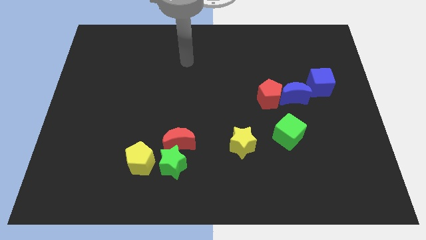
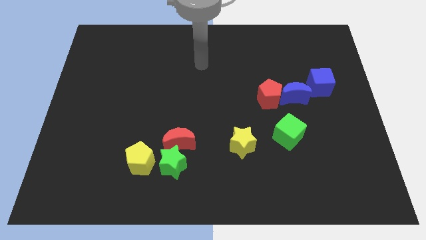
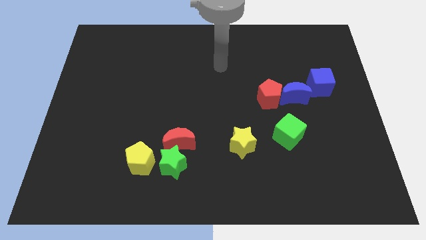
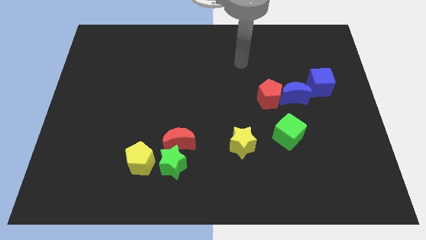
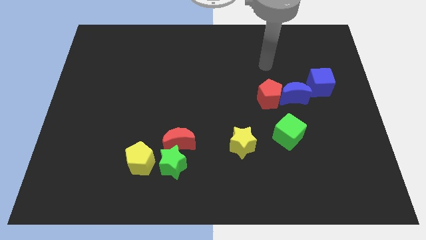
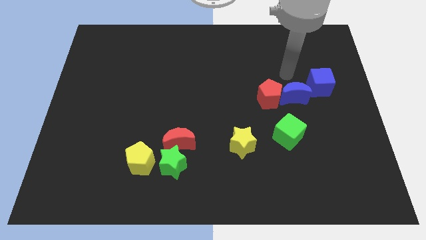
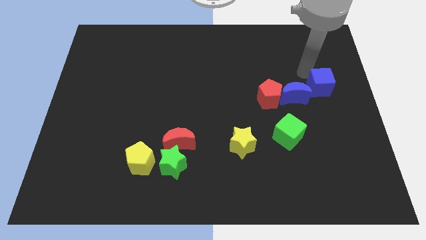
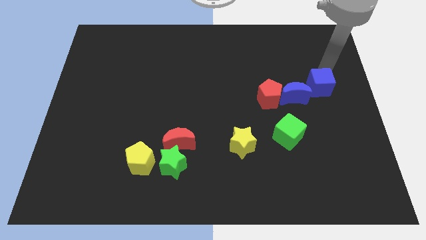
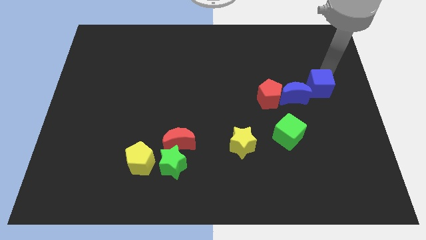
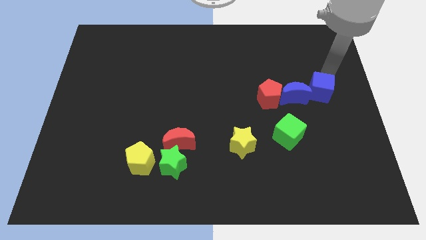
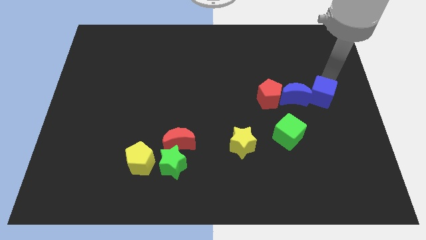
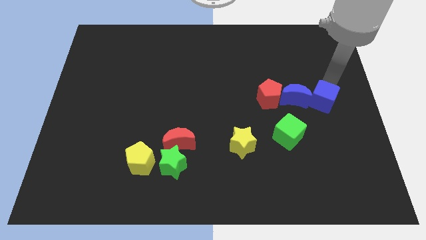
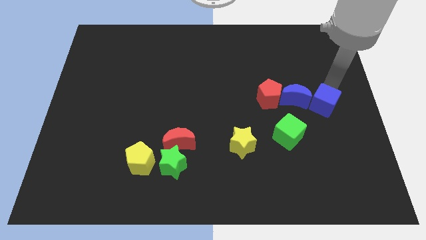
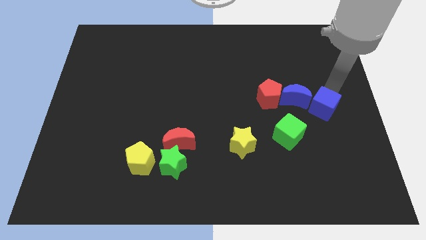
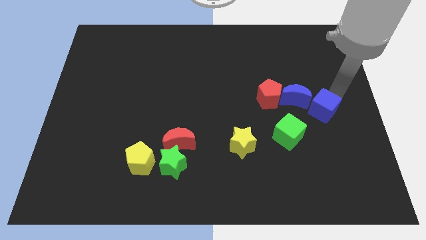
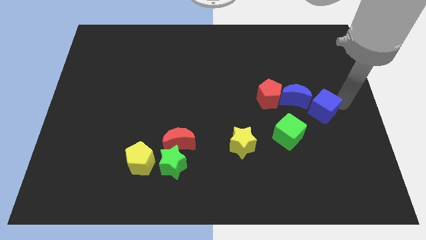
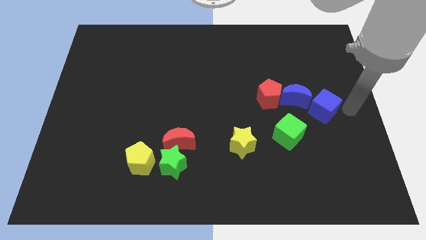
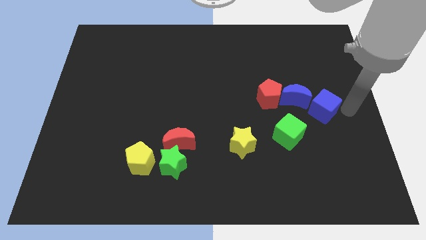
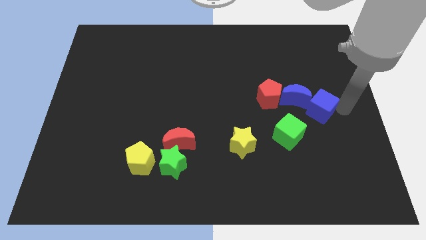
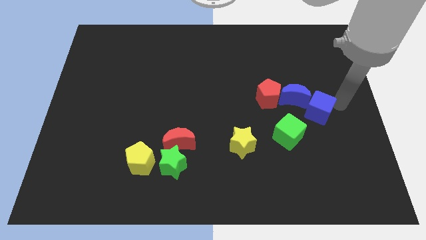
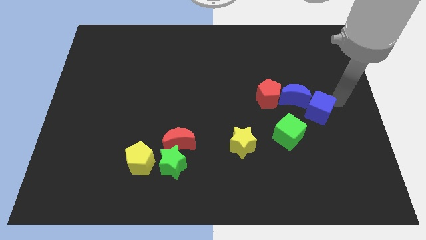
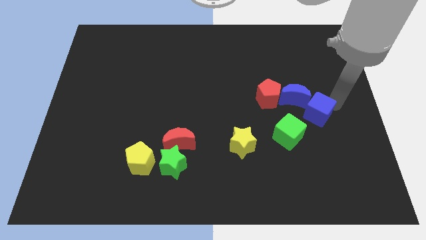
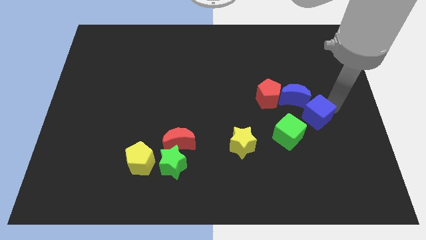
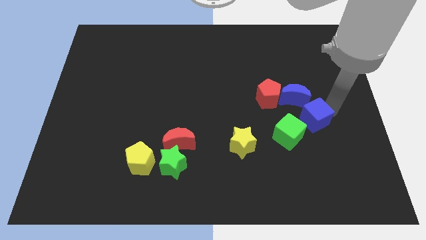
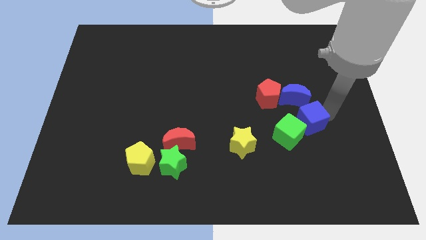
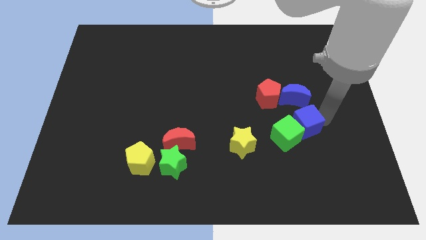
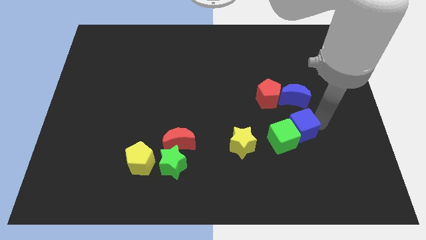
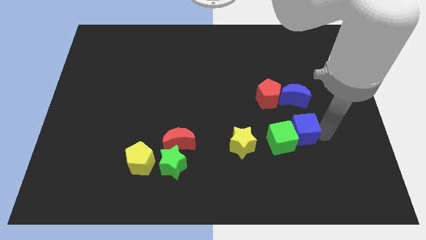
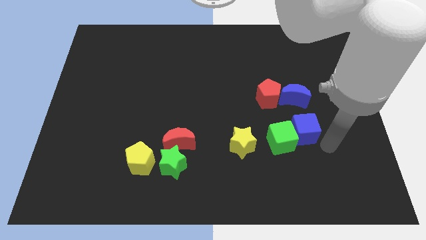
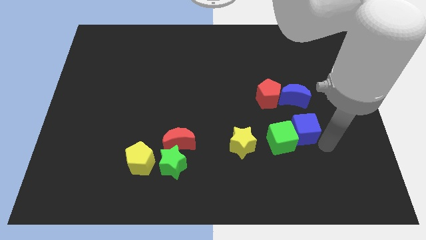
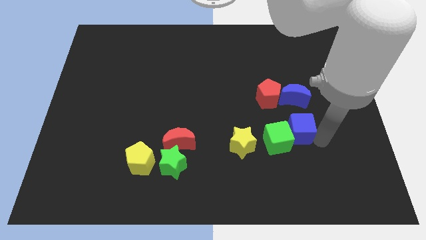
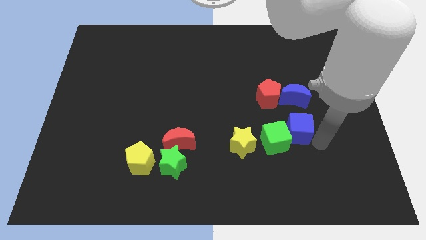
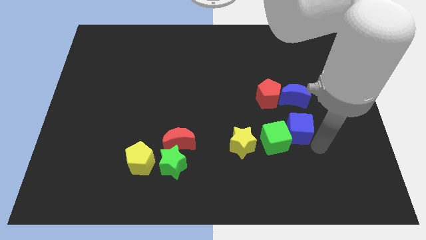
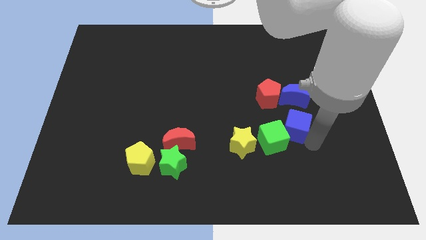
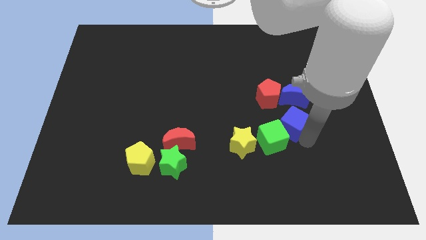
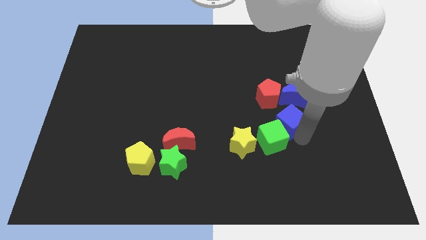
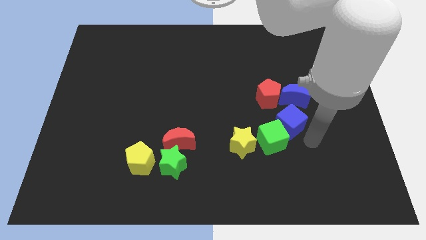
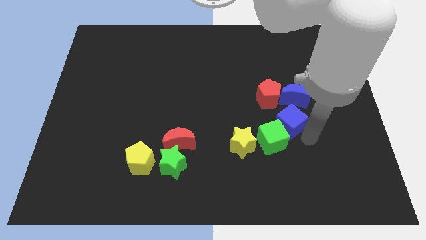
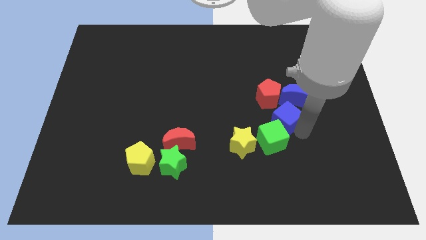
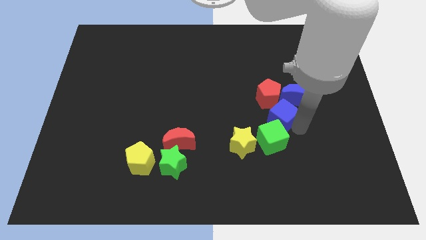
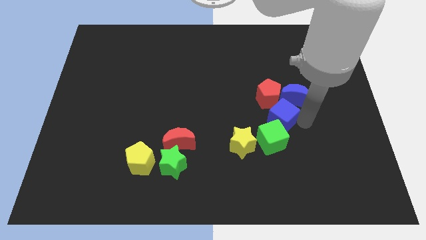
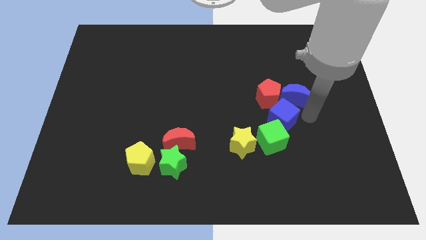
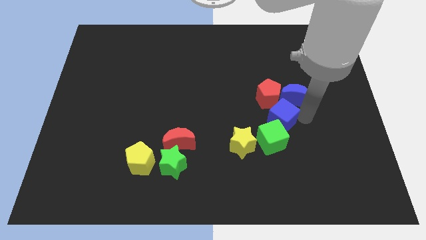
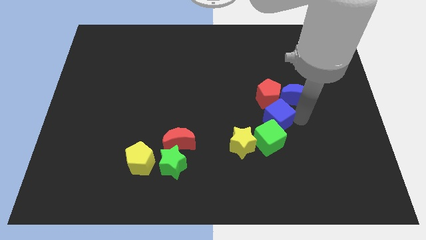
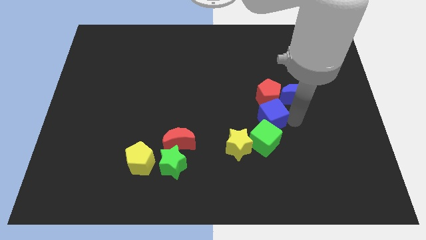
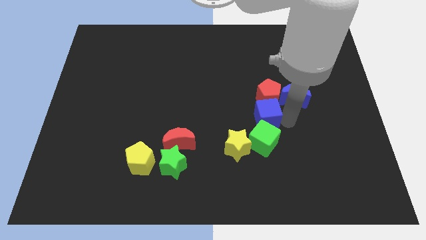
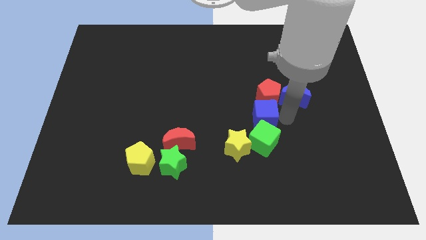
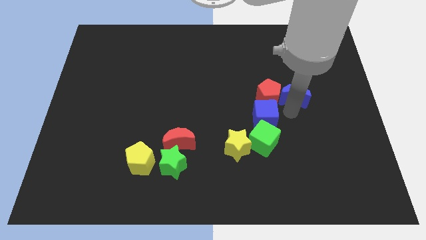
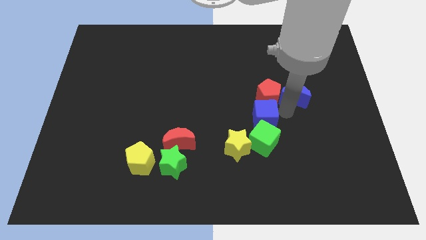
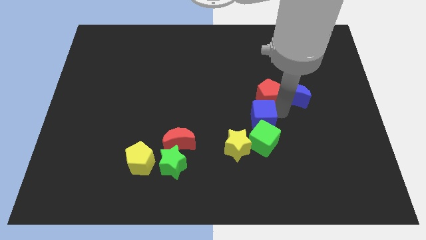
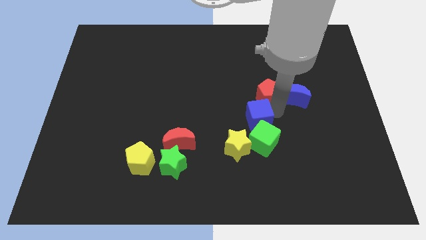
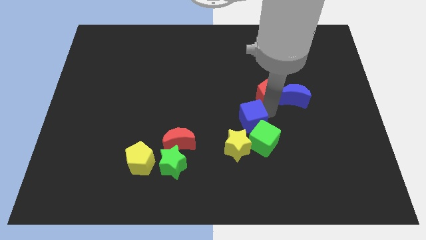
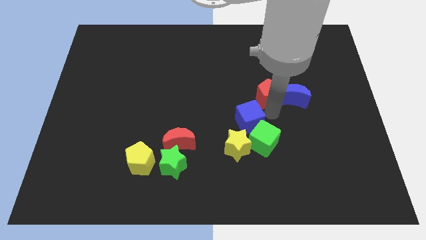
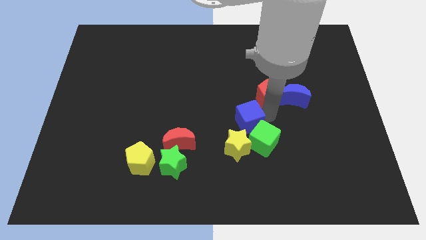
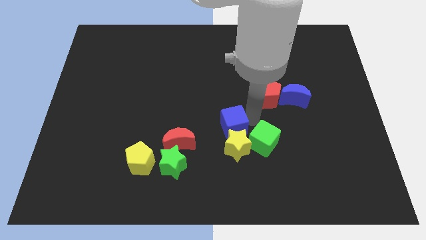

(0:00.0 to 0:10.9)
push the blue cube to the top left side of the yellow star

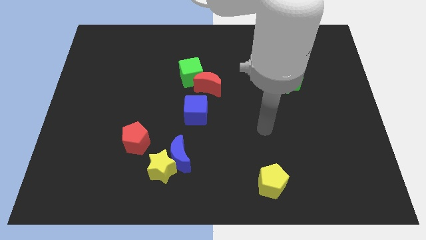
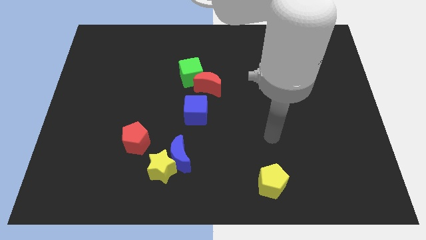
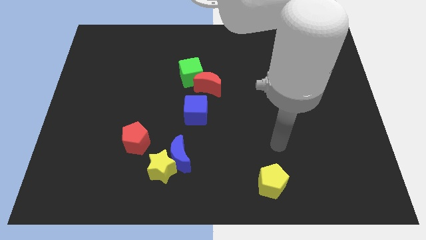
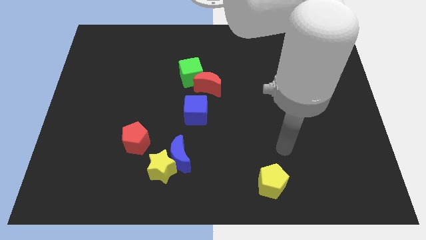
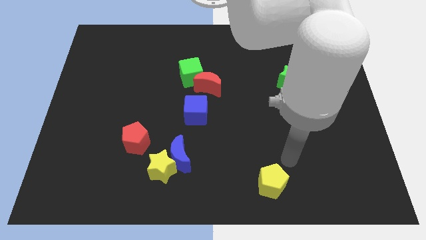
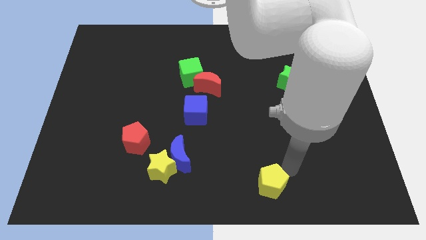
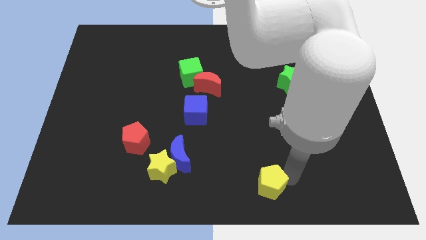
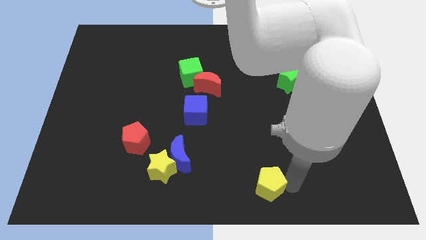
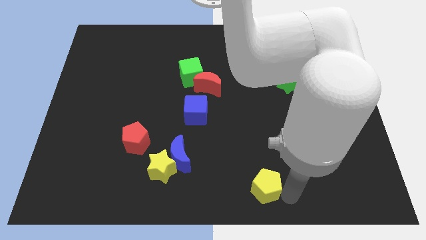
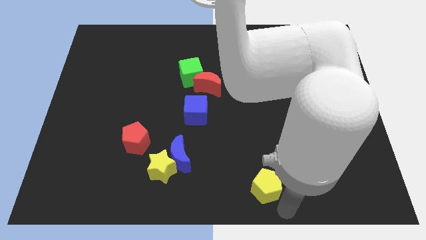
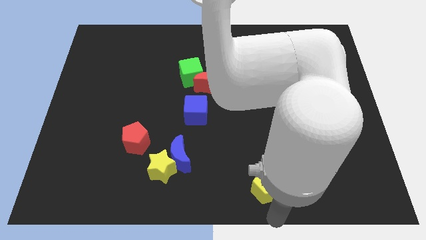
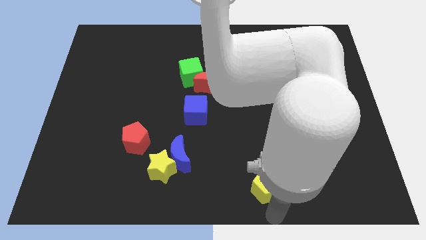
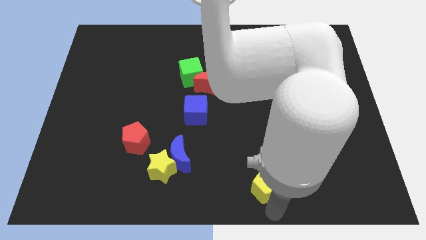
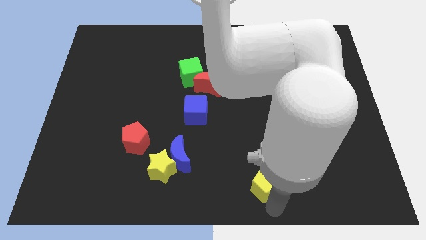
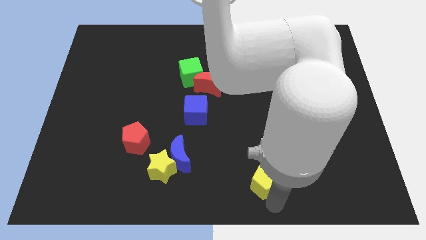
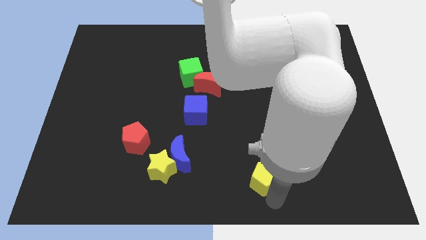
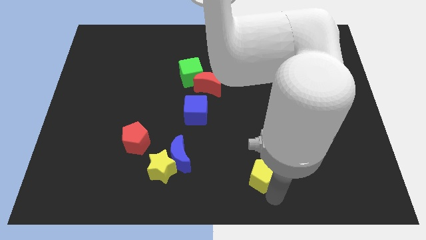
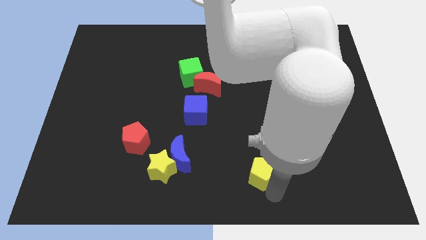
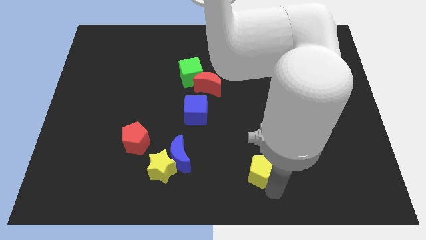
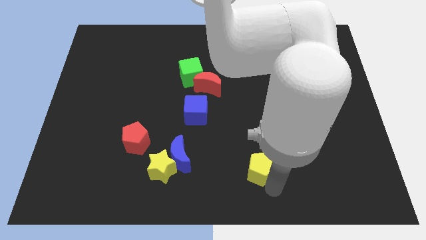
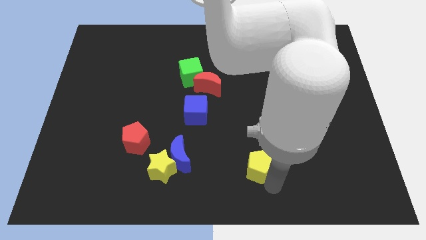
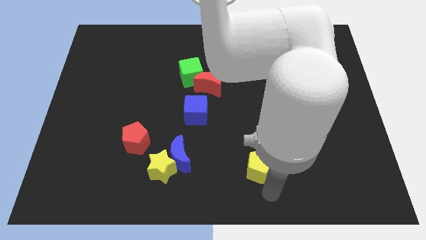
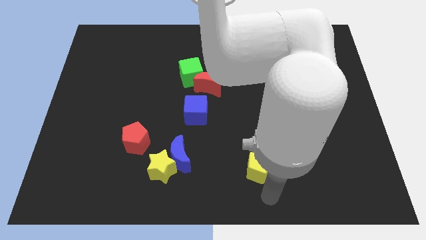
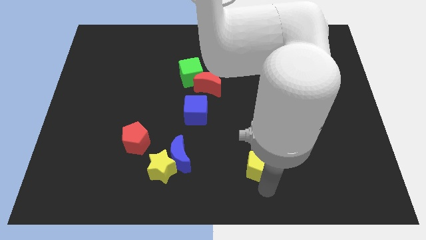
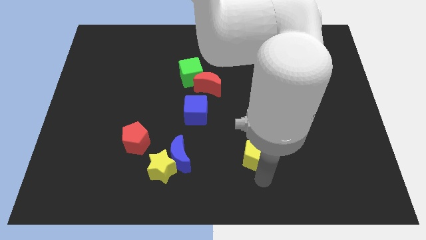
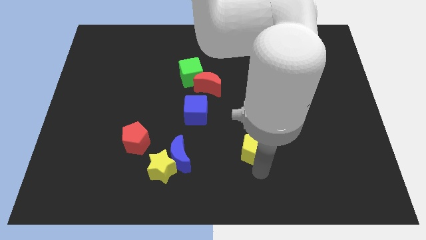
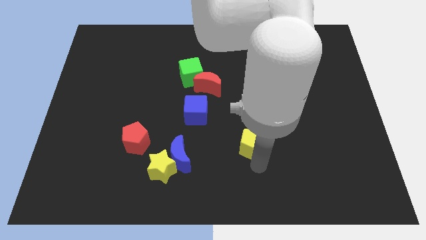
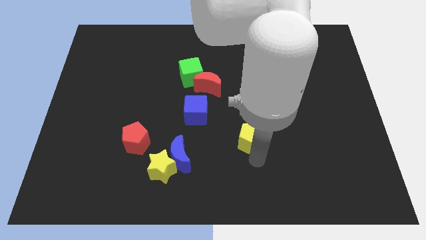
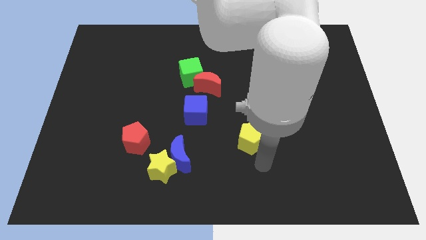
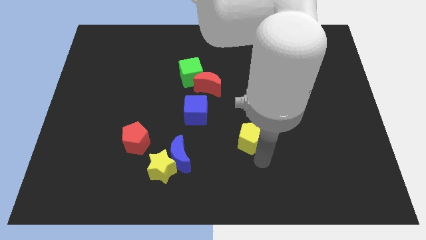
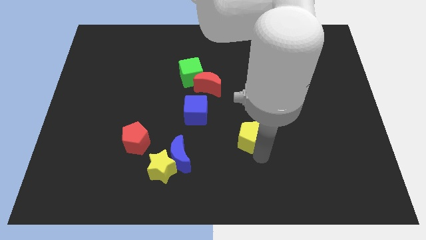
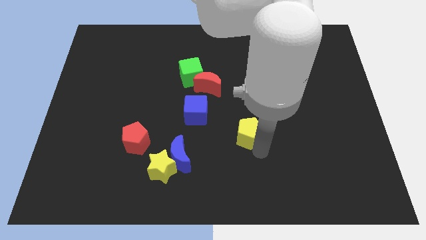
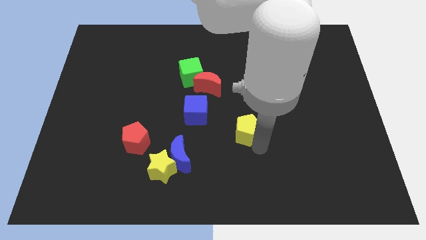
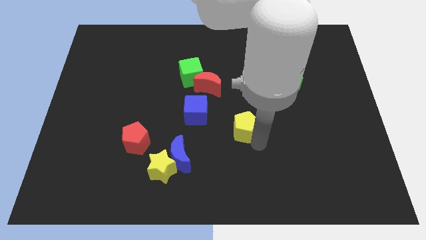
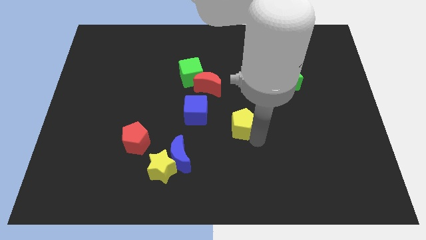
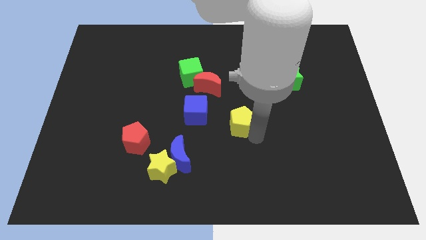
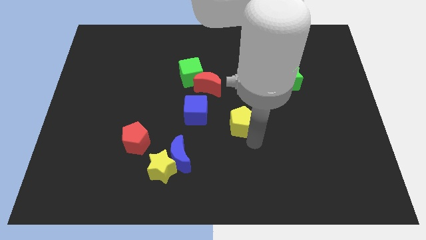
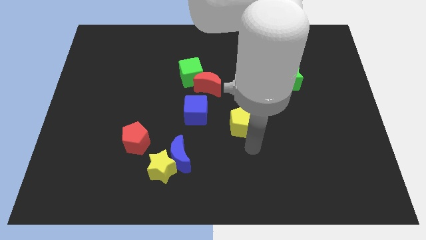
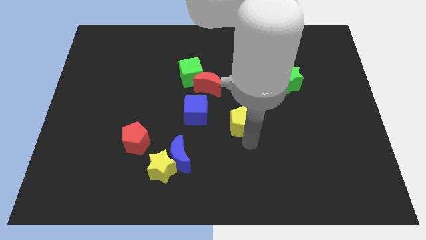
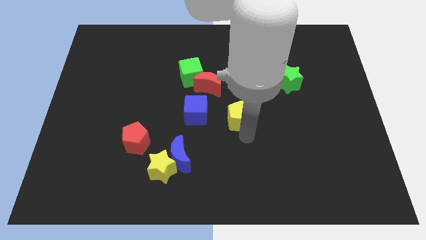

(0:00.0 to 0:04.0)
put the yellow pentagon diagonally down and to the right of the red moon
